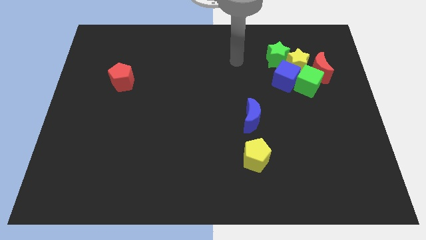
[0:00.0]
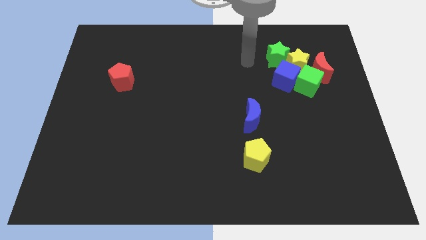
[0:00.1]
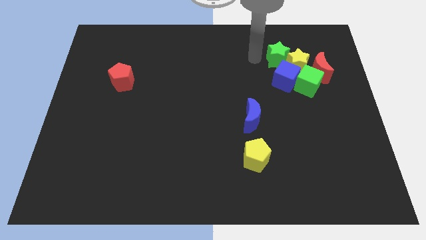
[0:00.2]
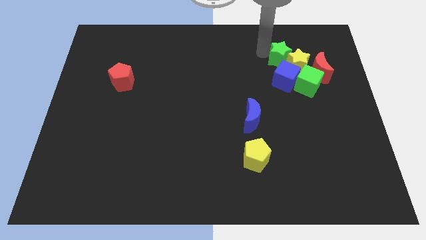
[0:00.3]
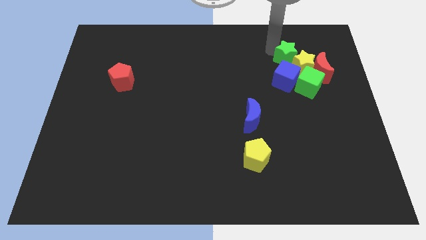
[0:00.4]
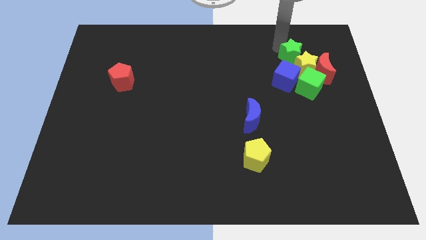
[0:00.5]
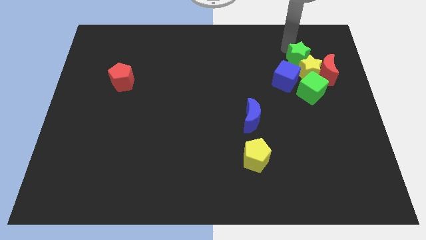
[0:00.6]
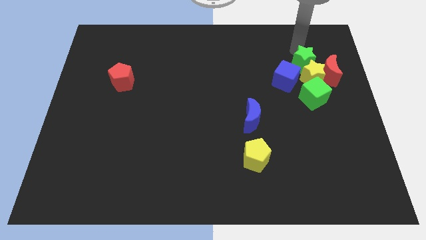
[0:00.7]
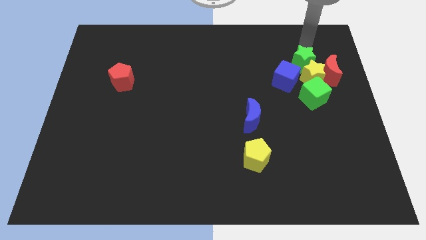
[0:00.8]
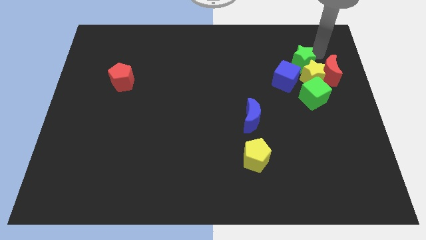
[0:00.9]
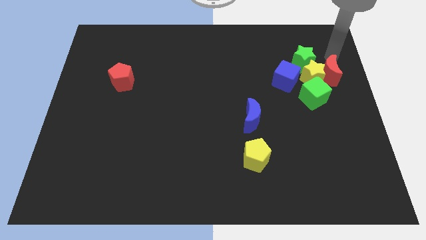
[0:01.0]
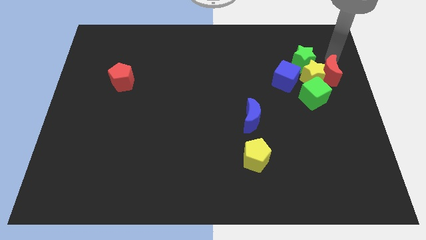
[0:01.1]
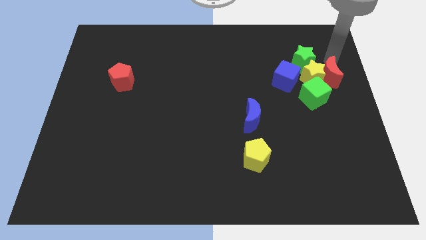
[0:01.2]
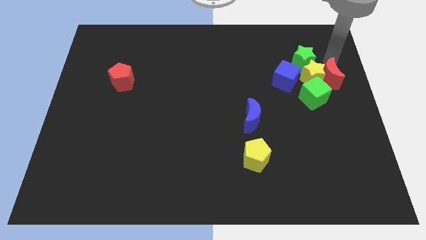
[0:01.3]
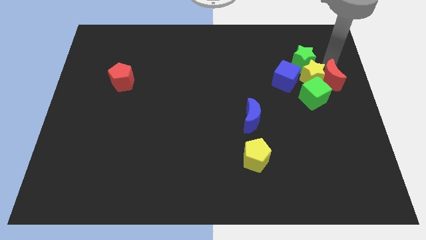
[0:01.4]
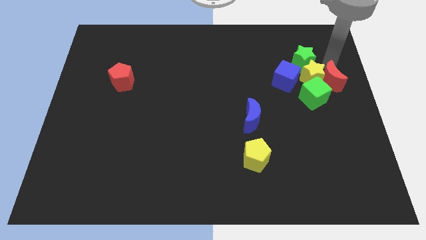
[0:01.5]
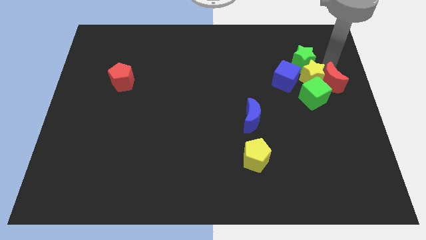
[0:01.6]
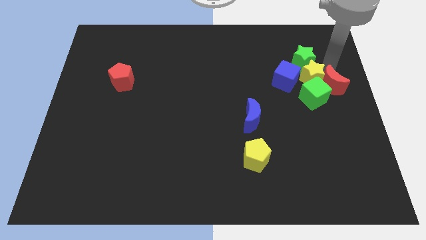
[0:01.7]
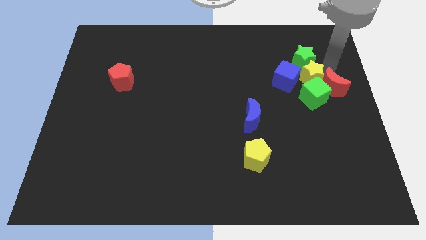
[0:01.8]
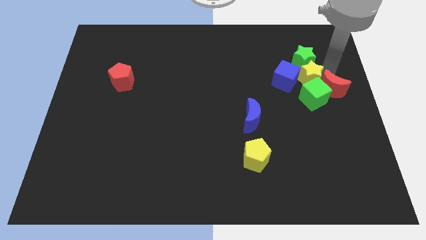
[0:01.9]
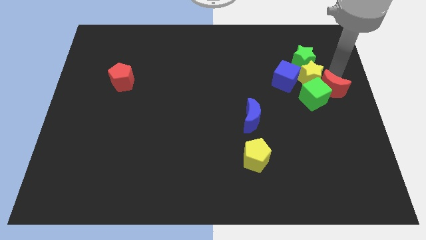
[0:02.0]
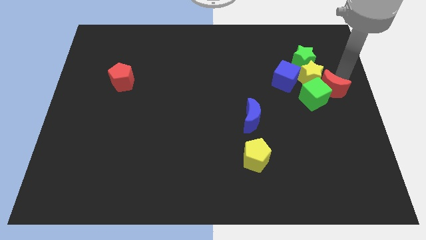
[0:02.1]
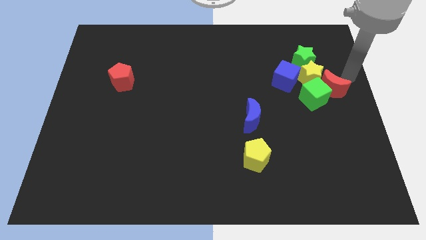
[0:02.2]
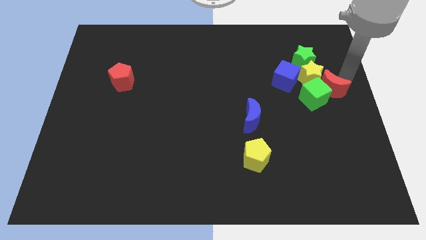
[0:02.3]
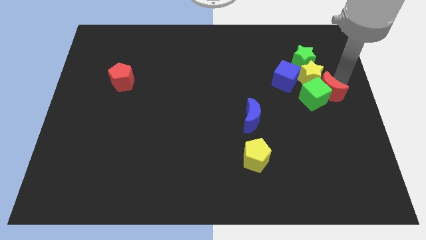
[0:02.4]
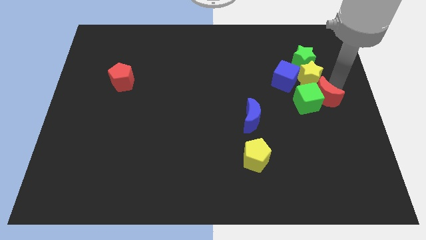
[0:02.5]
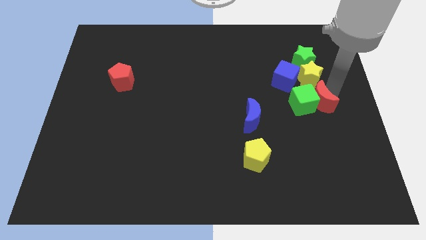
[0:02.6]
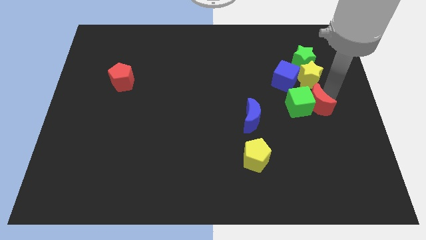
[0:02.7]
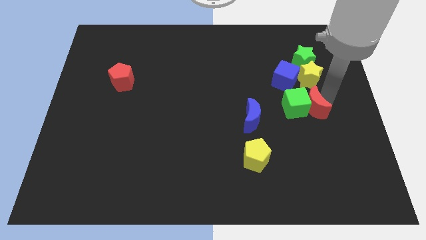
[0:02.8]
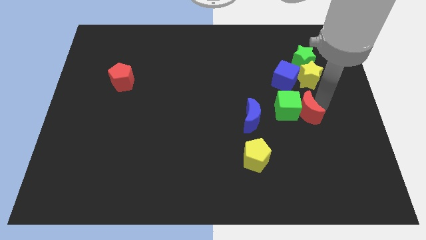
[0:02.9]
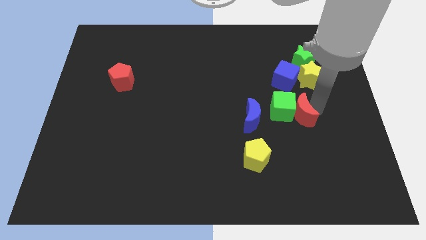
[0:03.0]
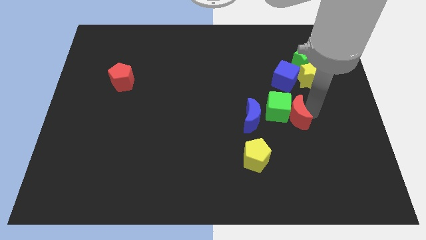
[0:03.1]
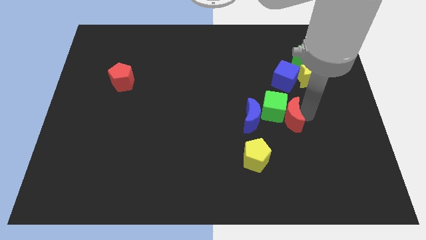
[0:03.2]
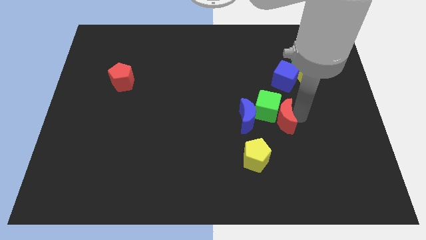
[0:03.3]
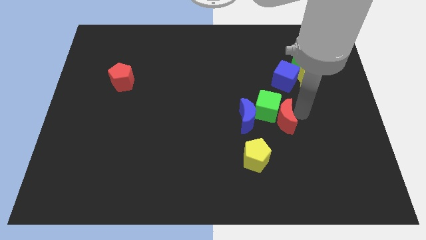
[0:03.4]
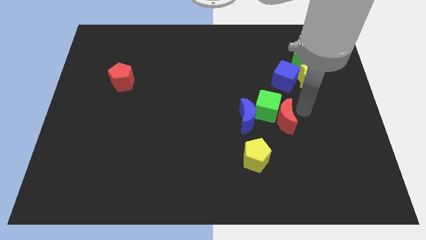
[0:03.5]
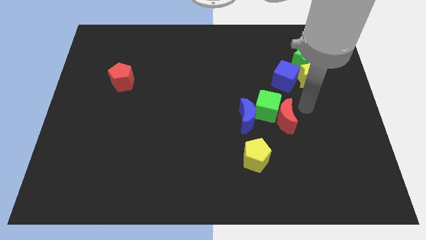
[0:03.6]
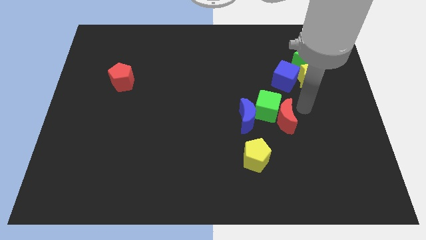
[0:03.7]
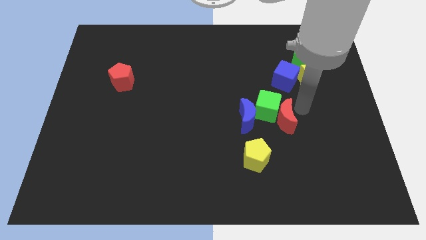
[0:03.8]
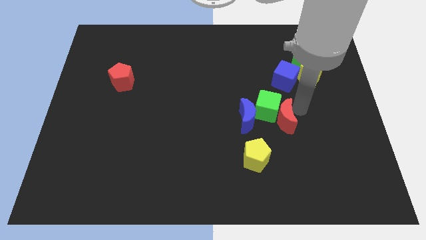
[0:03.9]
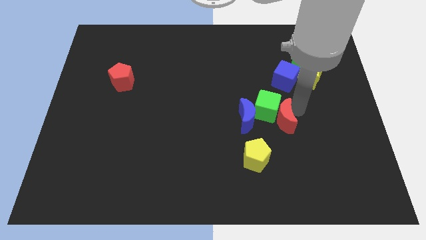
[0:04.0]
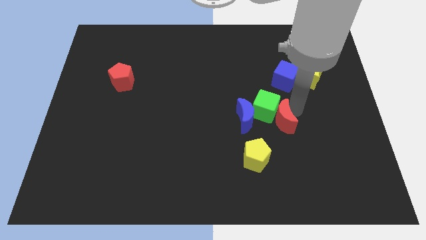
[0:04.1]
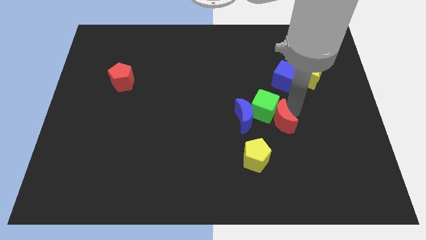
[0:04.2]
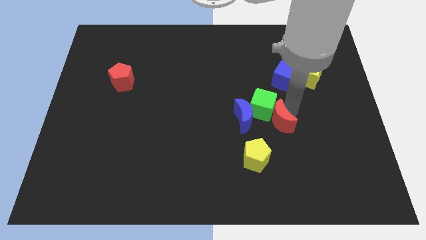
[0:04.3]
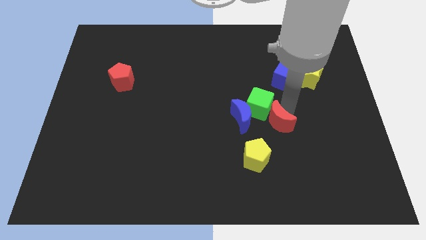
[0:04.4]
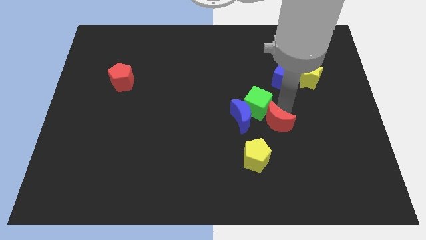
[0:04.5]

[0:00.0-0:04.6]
move the red moon diagonally down and to the left

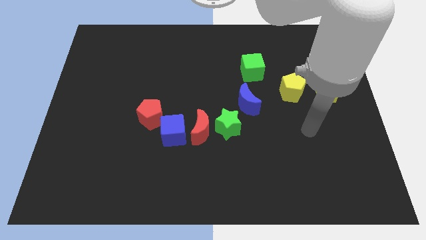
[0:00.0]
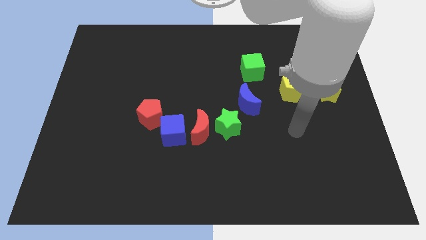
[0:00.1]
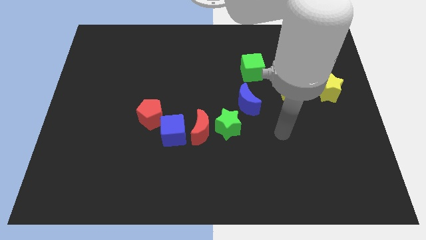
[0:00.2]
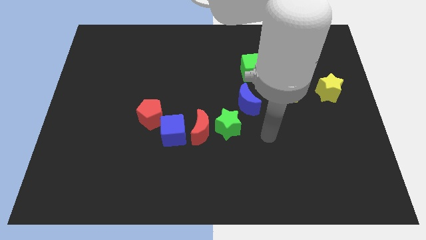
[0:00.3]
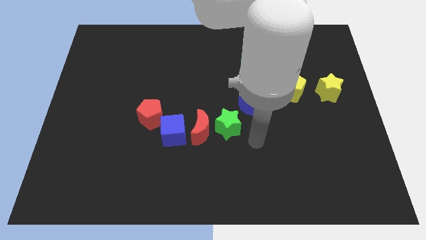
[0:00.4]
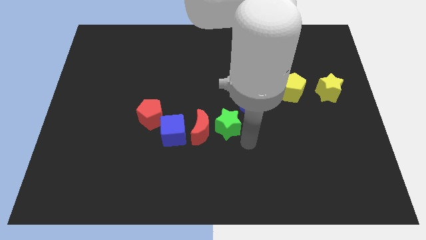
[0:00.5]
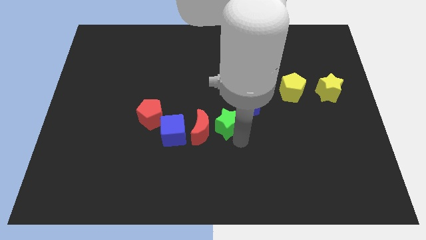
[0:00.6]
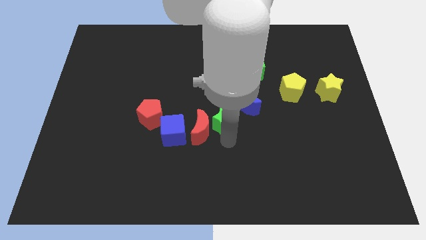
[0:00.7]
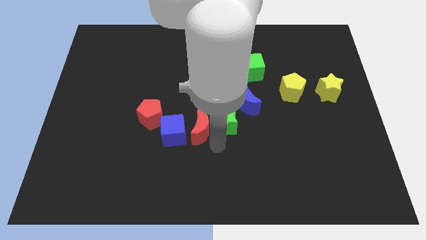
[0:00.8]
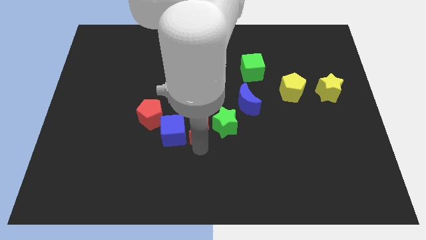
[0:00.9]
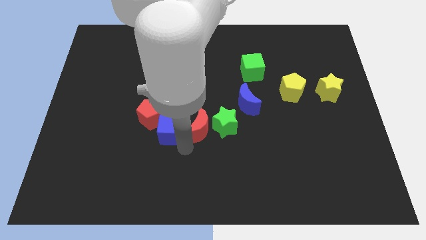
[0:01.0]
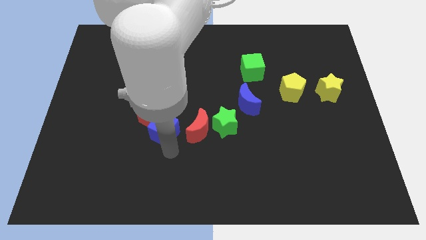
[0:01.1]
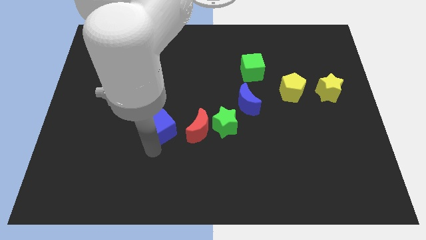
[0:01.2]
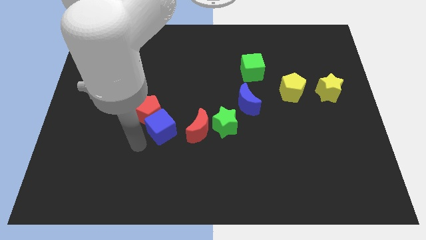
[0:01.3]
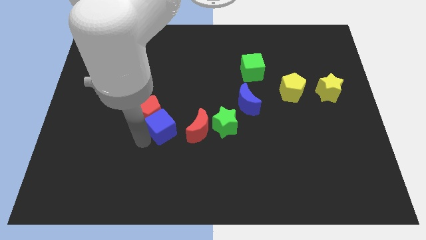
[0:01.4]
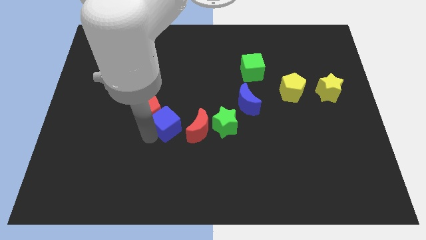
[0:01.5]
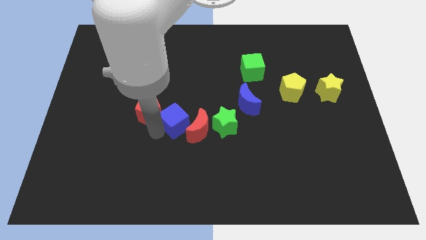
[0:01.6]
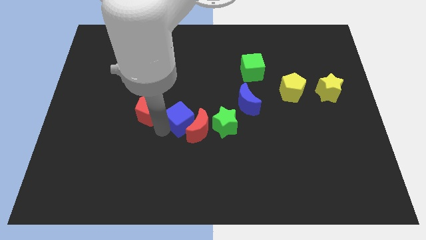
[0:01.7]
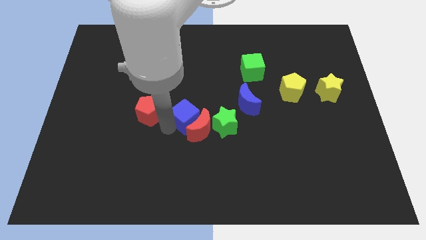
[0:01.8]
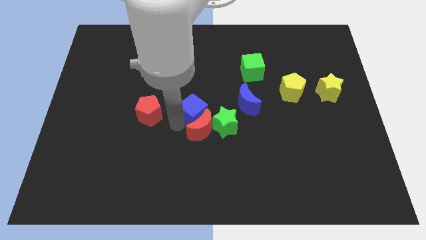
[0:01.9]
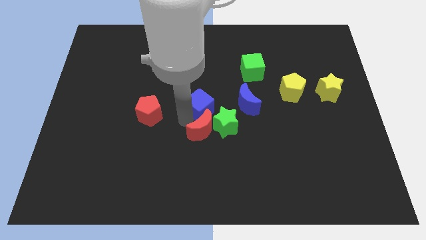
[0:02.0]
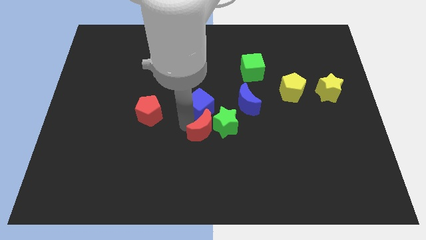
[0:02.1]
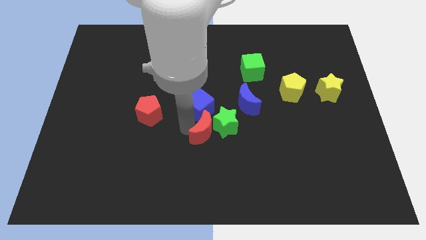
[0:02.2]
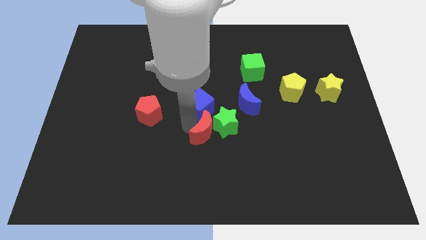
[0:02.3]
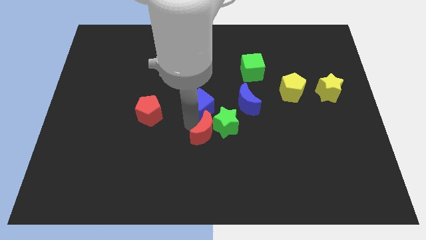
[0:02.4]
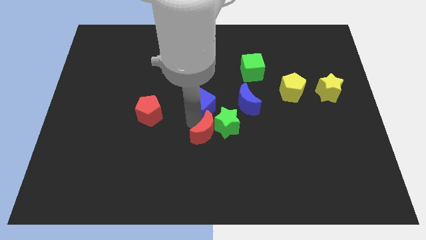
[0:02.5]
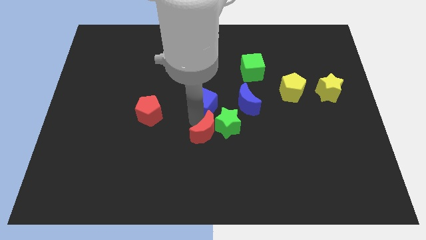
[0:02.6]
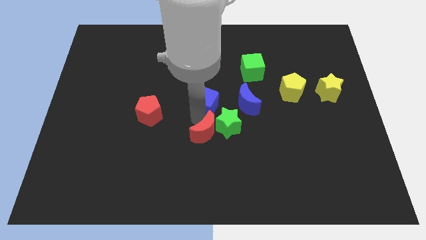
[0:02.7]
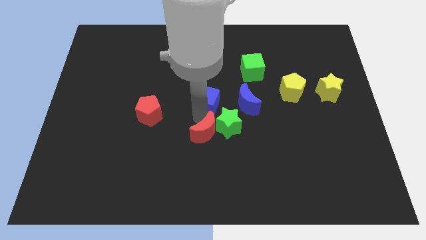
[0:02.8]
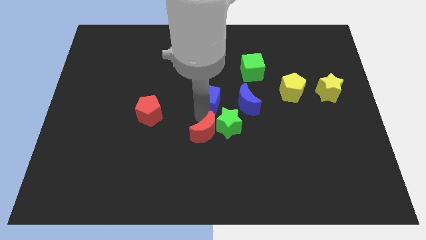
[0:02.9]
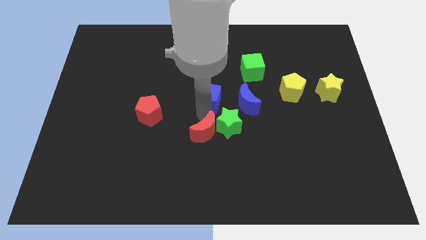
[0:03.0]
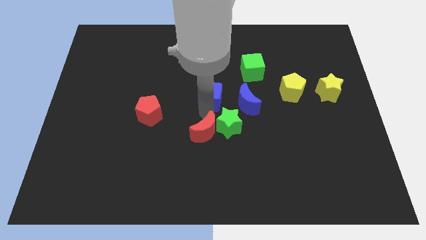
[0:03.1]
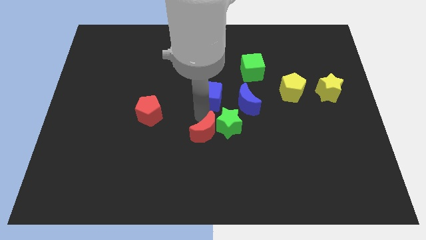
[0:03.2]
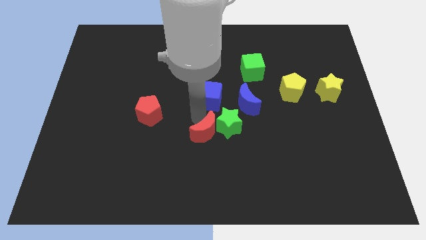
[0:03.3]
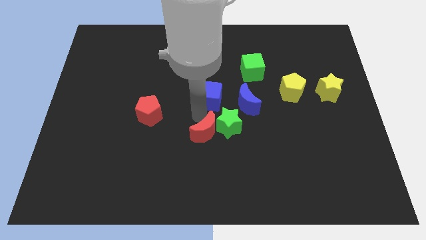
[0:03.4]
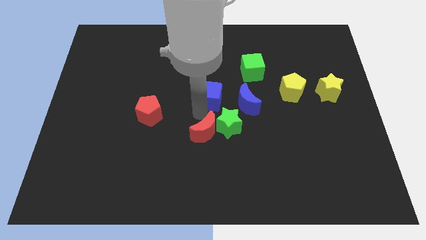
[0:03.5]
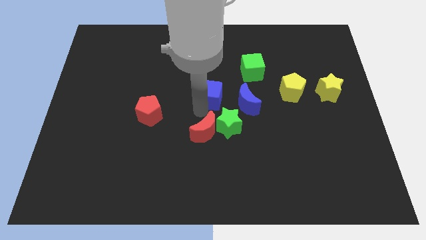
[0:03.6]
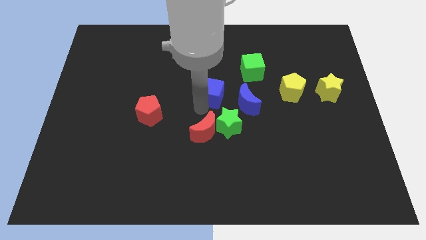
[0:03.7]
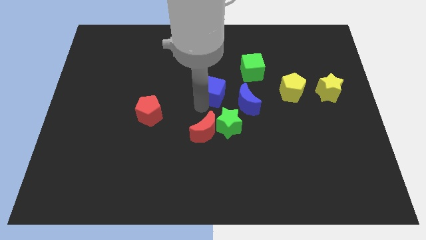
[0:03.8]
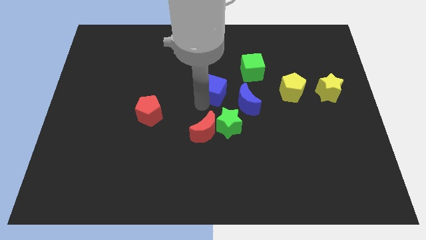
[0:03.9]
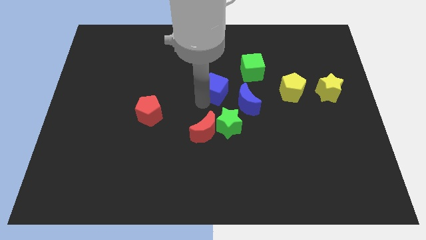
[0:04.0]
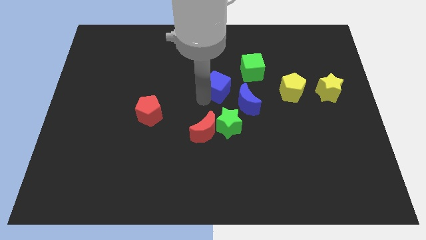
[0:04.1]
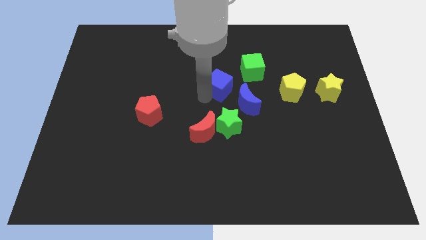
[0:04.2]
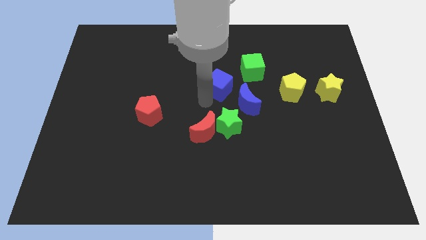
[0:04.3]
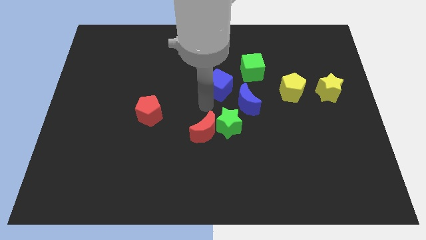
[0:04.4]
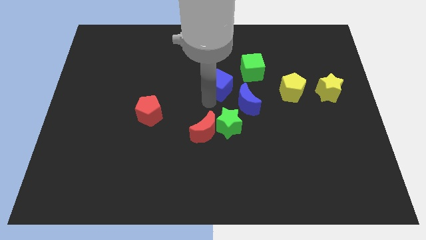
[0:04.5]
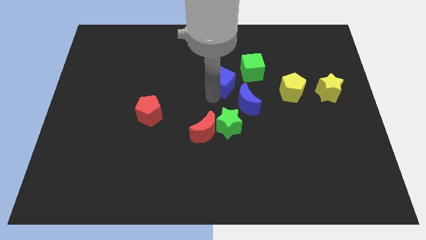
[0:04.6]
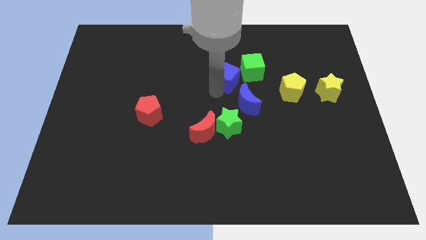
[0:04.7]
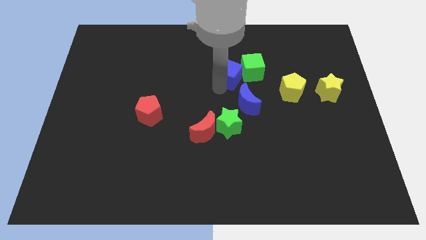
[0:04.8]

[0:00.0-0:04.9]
push the blue cube upwards and right diagonally
